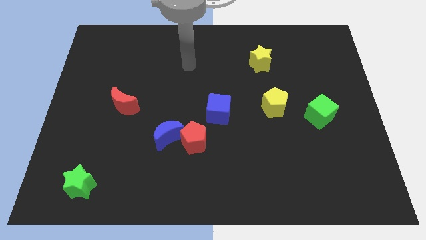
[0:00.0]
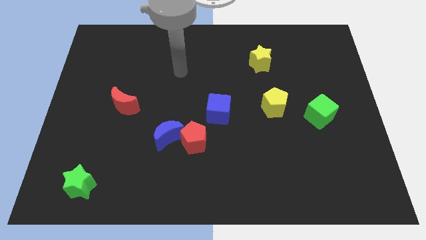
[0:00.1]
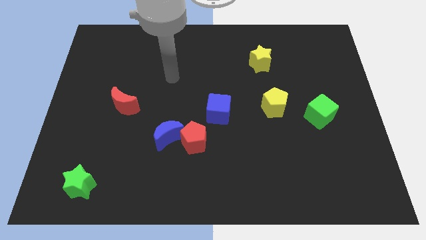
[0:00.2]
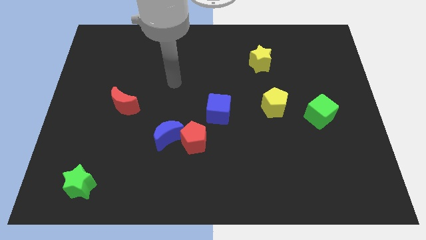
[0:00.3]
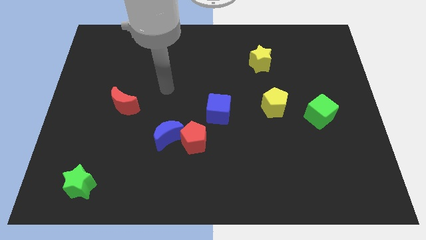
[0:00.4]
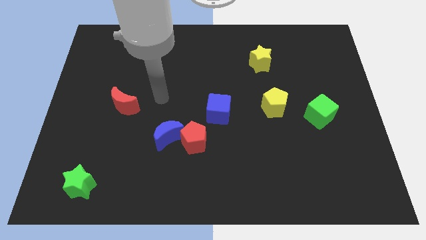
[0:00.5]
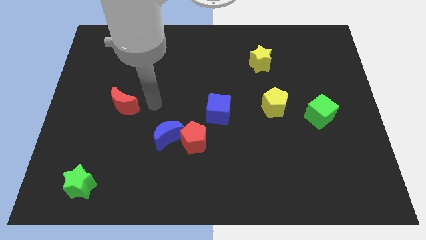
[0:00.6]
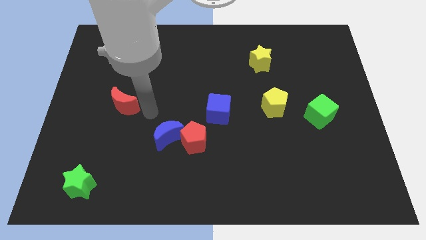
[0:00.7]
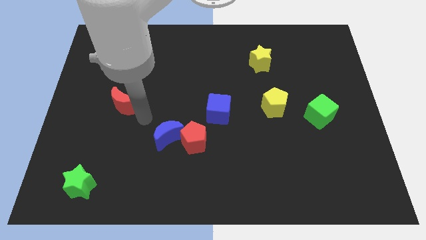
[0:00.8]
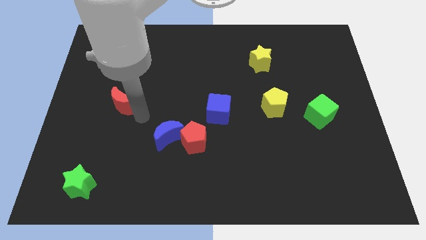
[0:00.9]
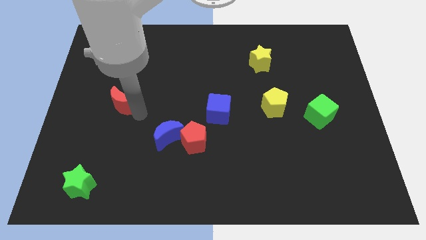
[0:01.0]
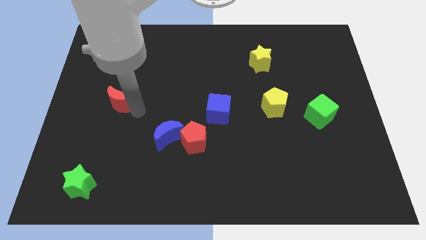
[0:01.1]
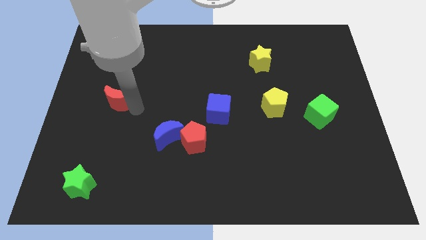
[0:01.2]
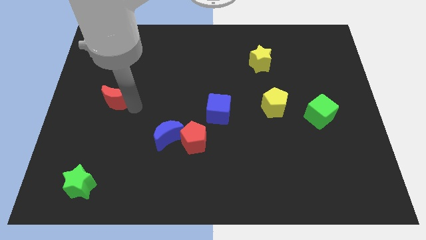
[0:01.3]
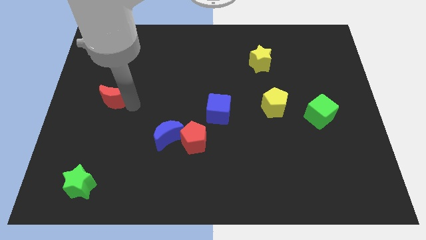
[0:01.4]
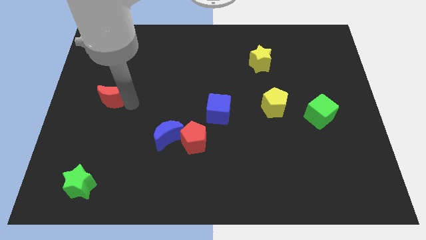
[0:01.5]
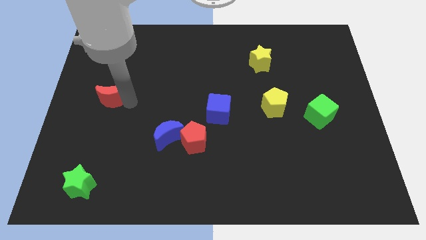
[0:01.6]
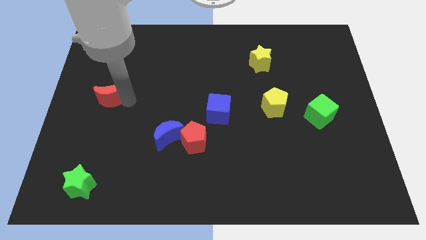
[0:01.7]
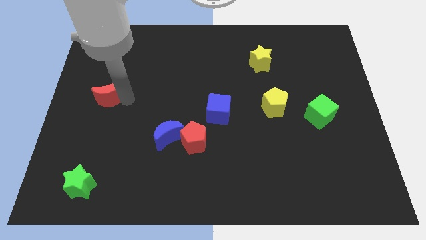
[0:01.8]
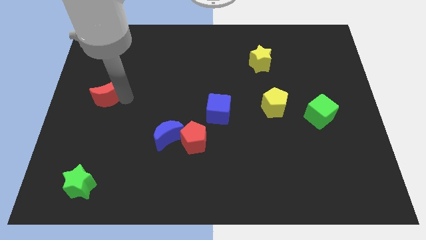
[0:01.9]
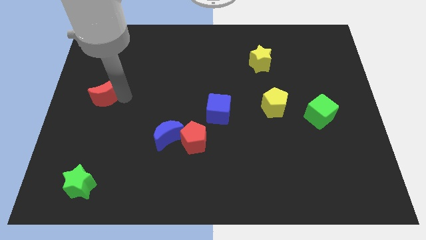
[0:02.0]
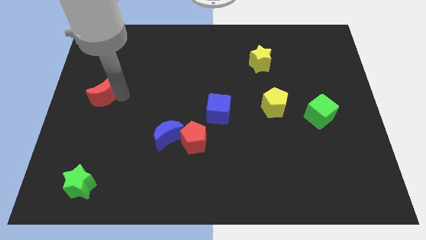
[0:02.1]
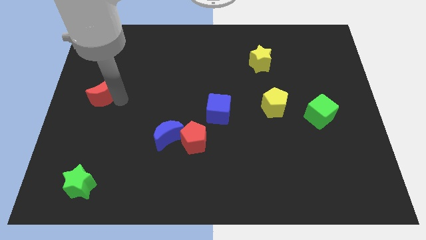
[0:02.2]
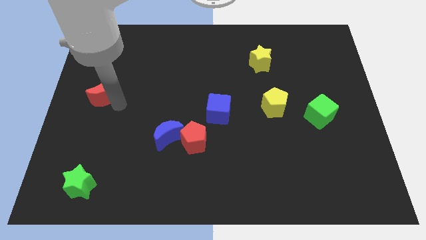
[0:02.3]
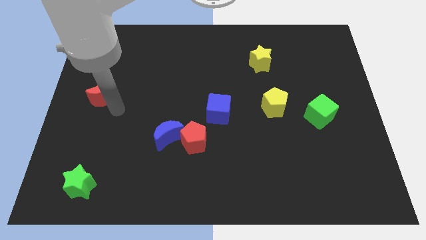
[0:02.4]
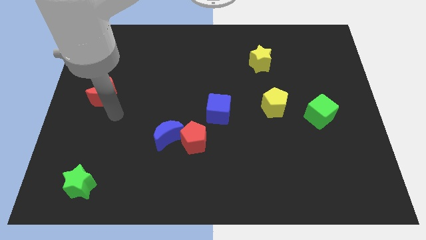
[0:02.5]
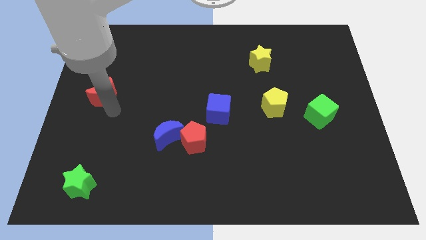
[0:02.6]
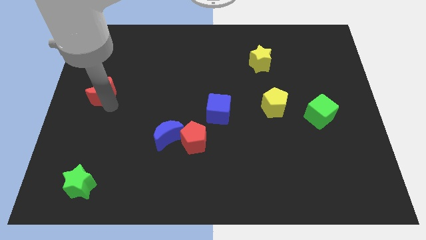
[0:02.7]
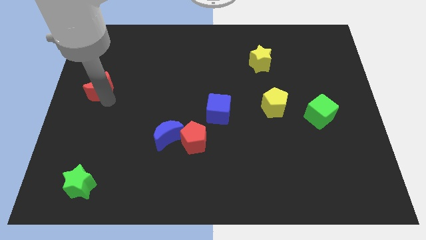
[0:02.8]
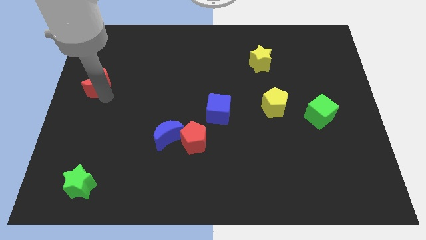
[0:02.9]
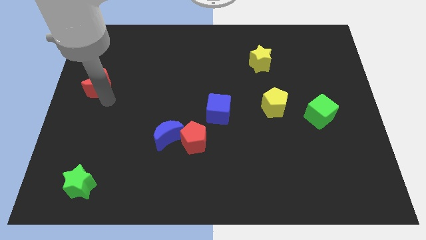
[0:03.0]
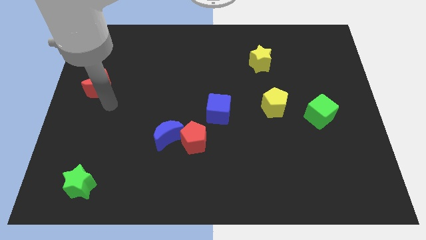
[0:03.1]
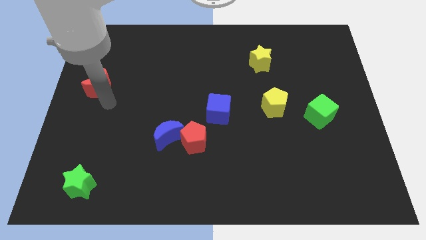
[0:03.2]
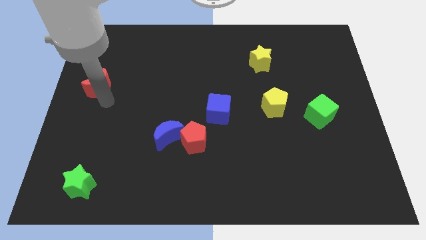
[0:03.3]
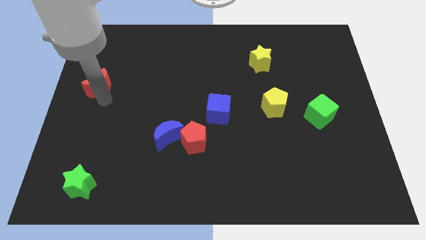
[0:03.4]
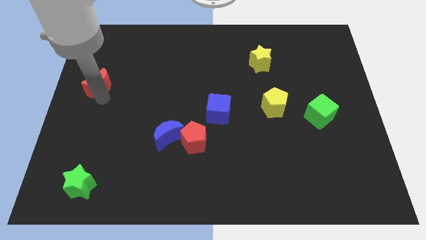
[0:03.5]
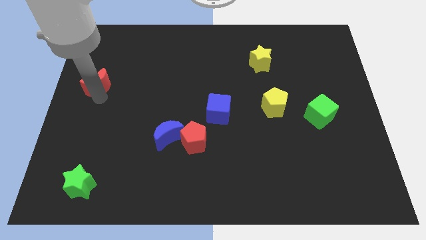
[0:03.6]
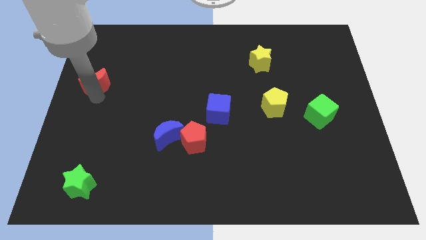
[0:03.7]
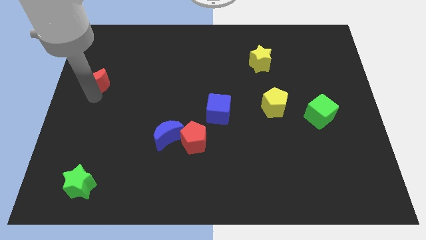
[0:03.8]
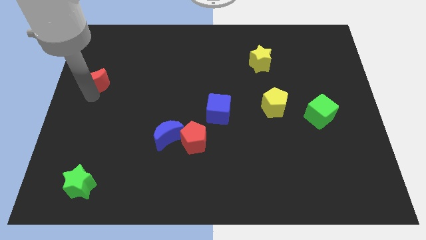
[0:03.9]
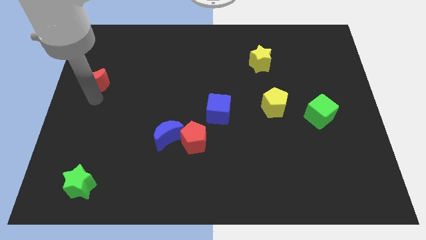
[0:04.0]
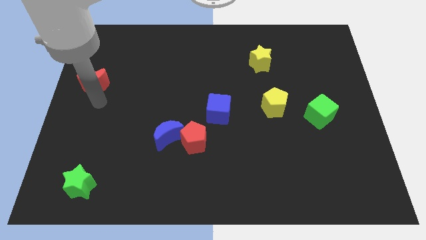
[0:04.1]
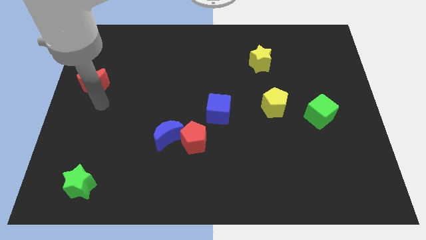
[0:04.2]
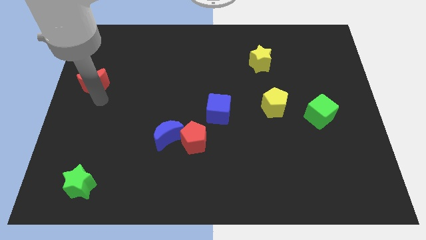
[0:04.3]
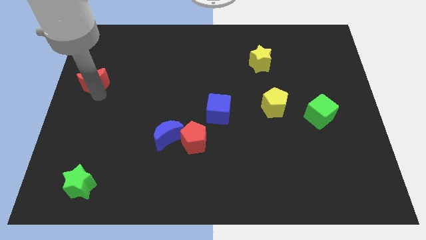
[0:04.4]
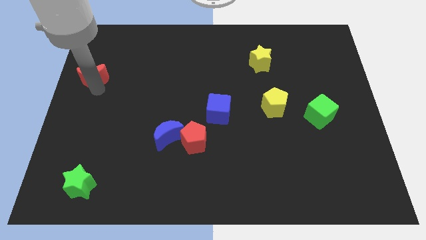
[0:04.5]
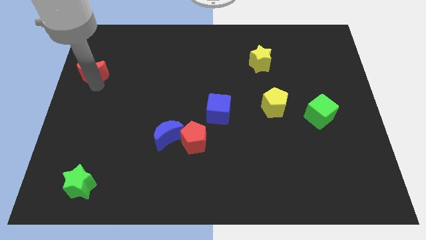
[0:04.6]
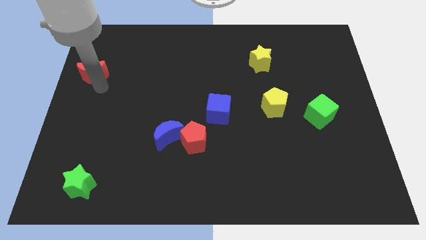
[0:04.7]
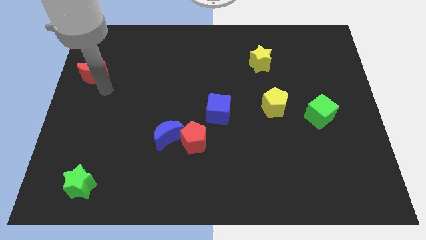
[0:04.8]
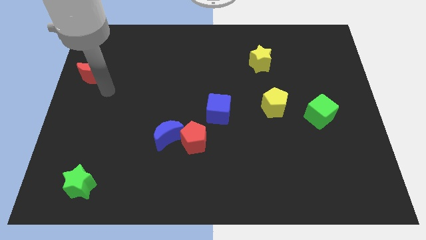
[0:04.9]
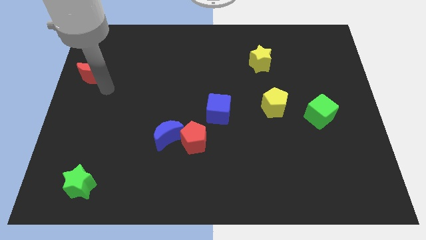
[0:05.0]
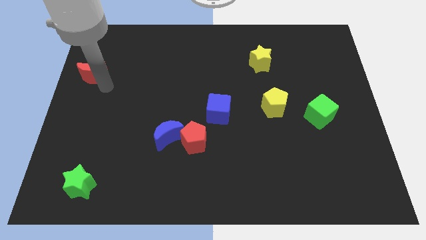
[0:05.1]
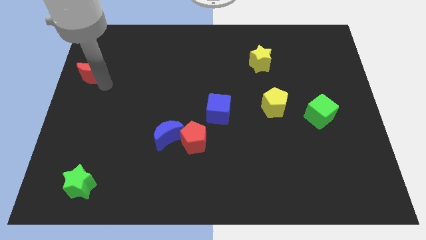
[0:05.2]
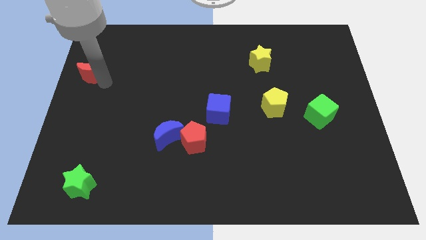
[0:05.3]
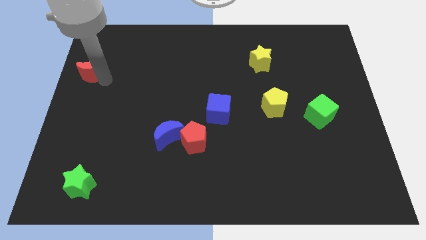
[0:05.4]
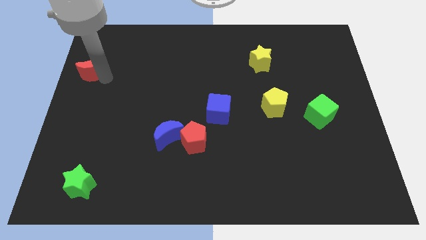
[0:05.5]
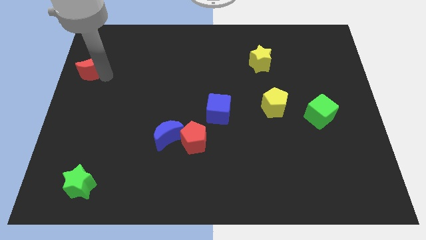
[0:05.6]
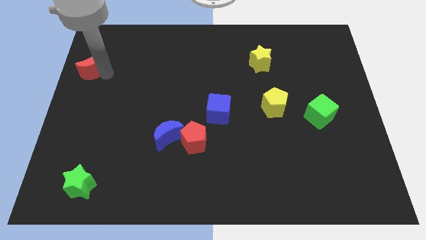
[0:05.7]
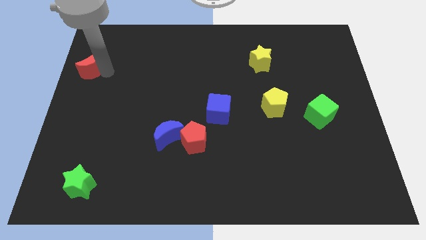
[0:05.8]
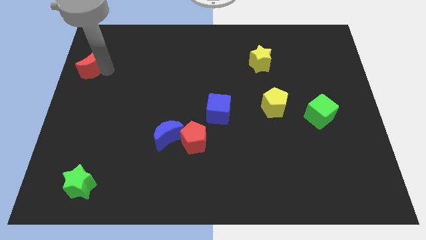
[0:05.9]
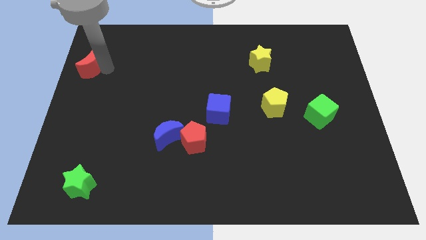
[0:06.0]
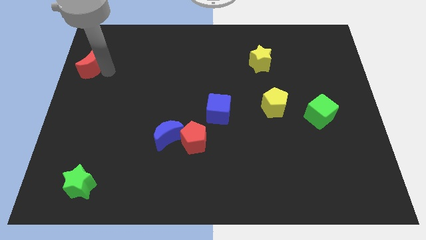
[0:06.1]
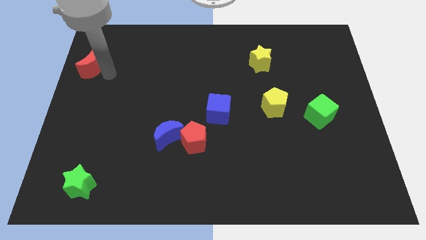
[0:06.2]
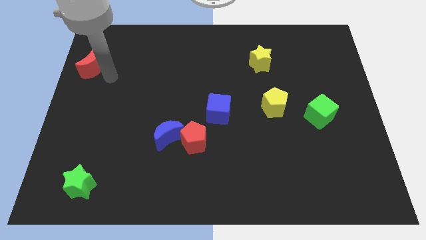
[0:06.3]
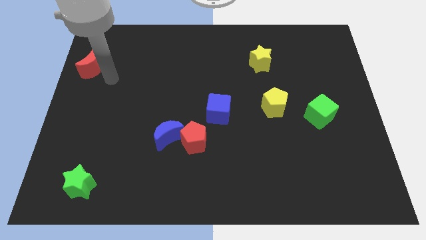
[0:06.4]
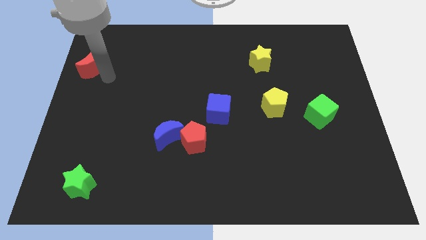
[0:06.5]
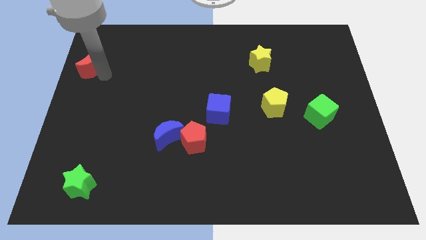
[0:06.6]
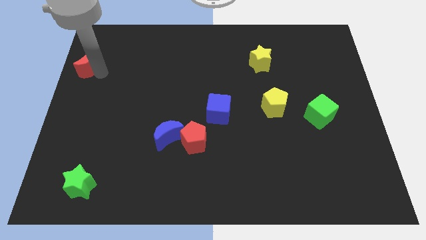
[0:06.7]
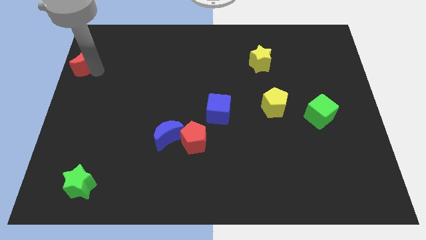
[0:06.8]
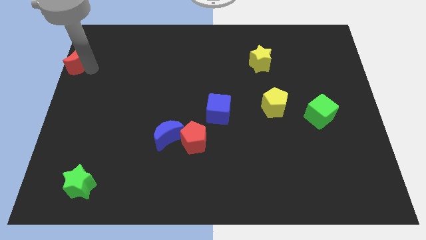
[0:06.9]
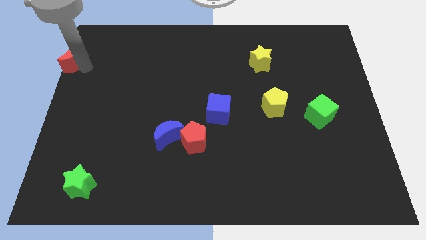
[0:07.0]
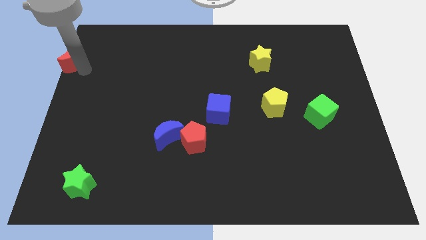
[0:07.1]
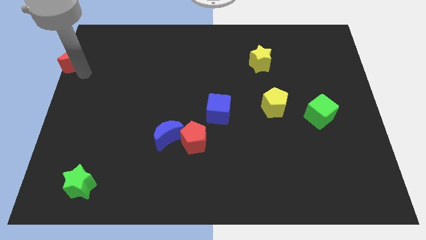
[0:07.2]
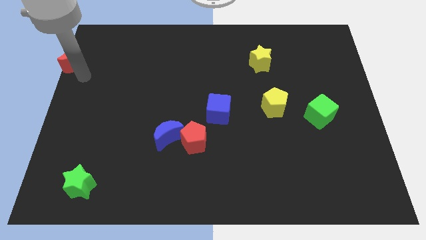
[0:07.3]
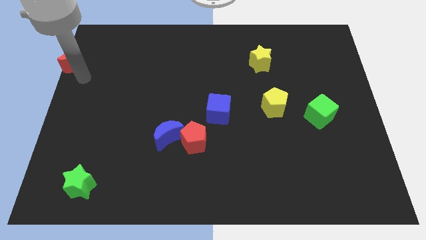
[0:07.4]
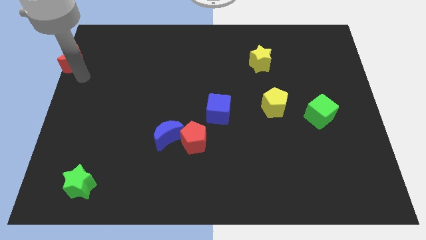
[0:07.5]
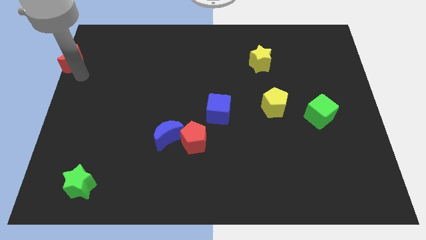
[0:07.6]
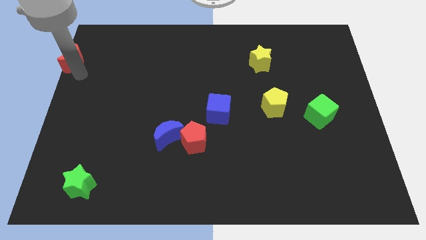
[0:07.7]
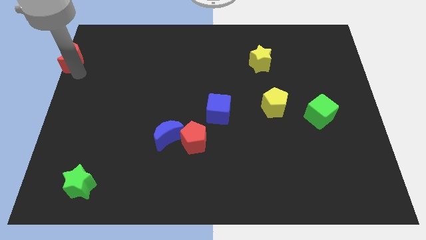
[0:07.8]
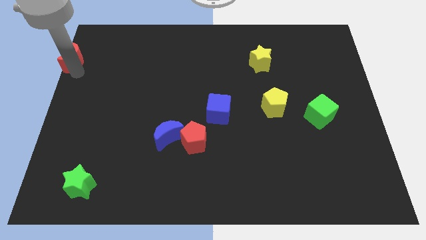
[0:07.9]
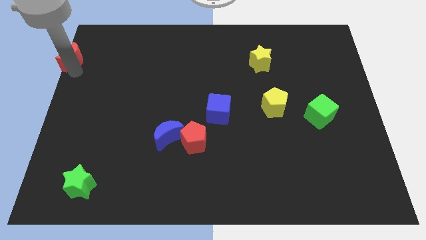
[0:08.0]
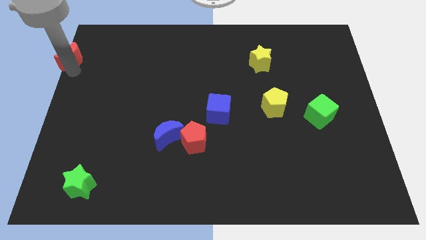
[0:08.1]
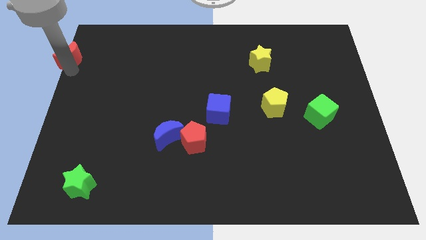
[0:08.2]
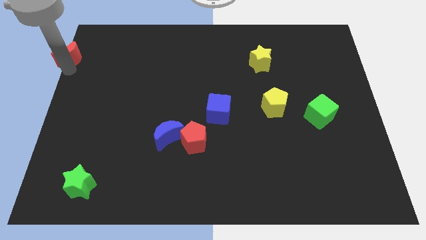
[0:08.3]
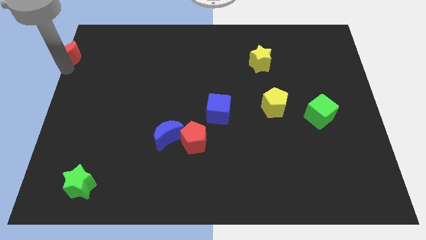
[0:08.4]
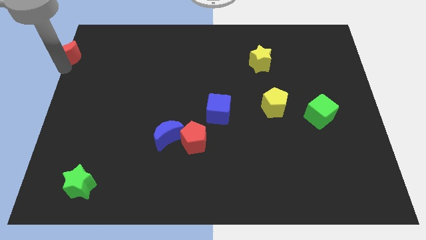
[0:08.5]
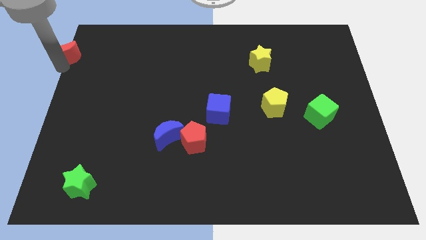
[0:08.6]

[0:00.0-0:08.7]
put the red moon to the upper left corner
